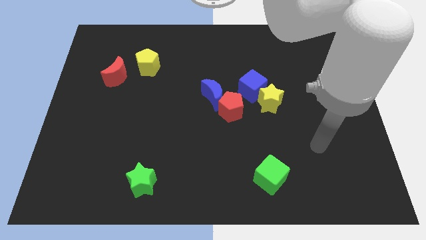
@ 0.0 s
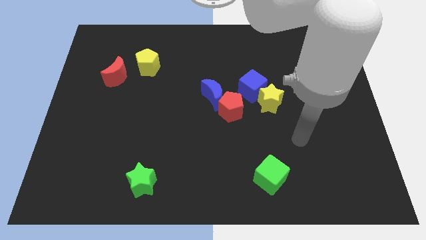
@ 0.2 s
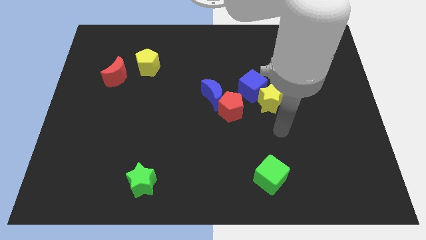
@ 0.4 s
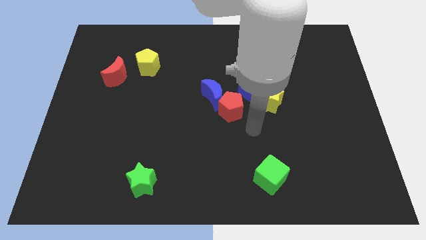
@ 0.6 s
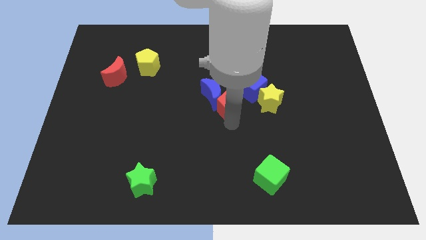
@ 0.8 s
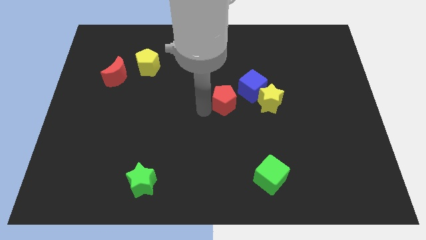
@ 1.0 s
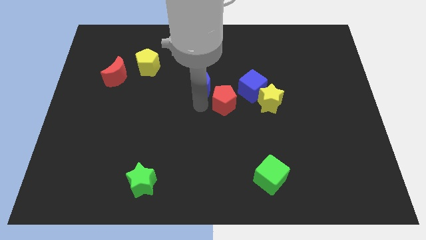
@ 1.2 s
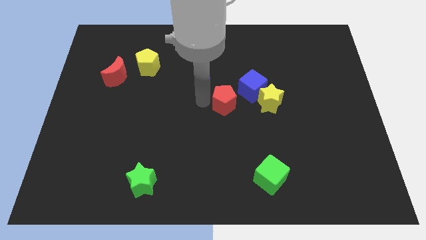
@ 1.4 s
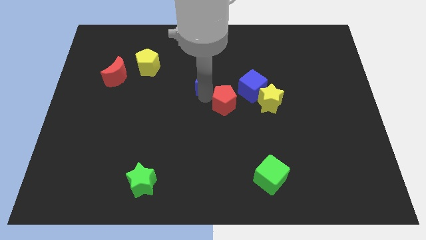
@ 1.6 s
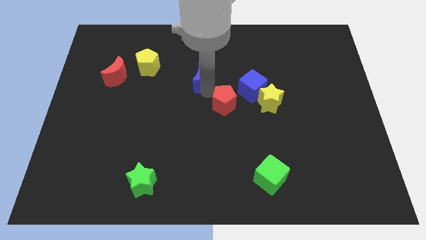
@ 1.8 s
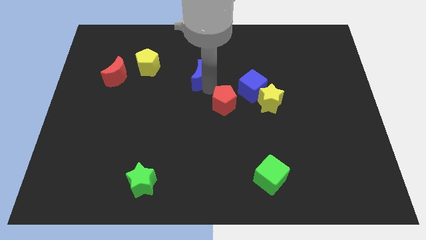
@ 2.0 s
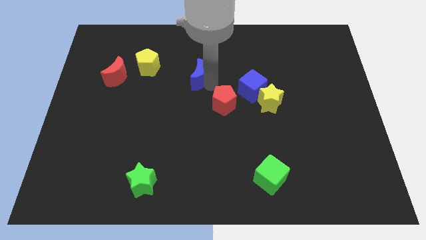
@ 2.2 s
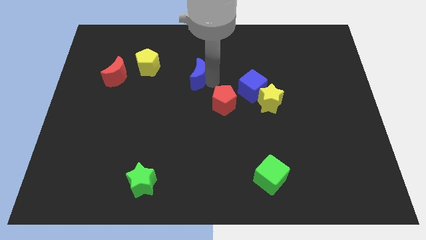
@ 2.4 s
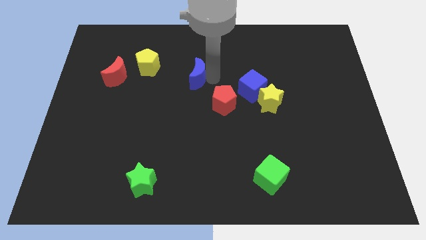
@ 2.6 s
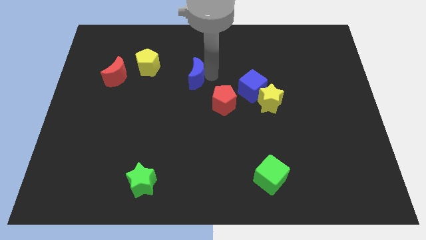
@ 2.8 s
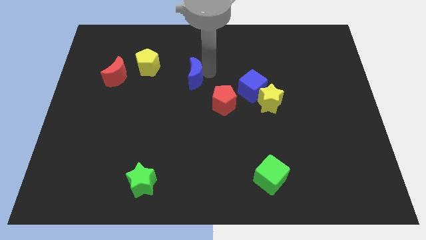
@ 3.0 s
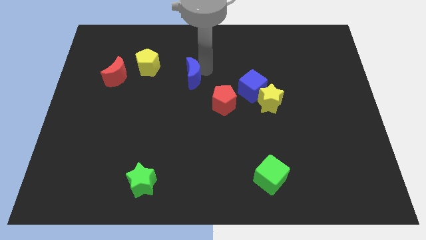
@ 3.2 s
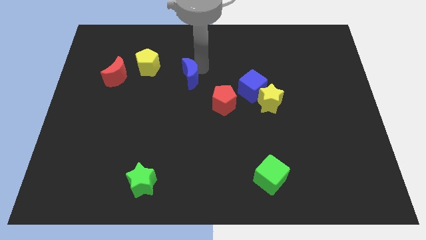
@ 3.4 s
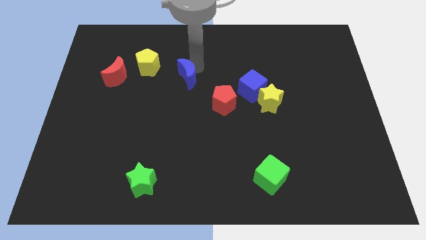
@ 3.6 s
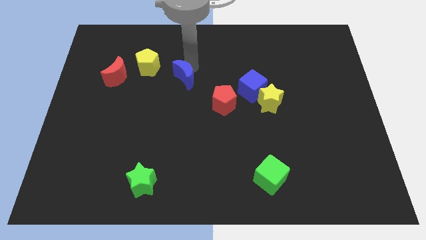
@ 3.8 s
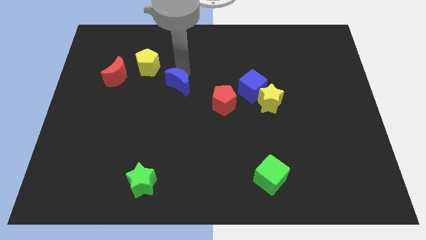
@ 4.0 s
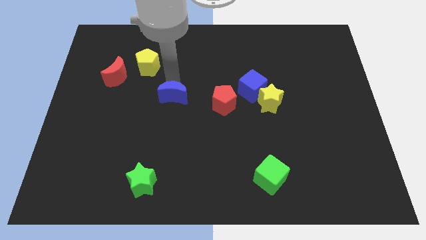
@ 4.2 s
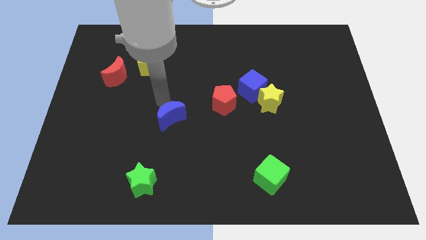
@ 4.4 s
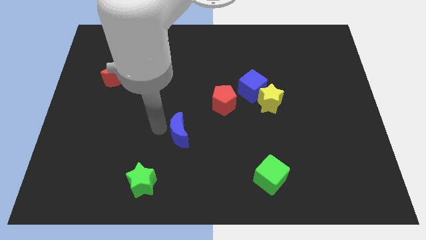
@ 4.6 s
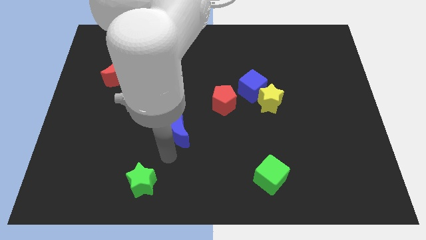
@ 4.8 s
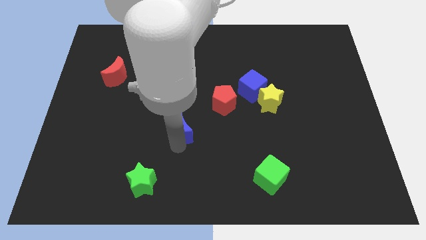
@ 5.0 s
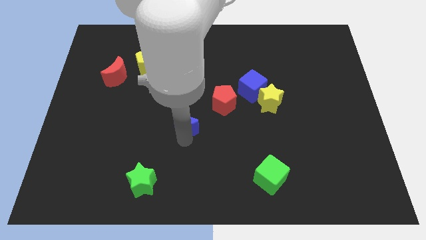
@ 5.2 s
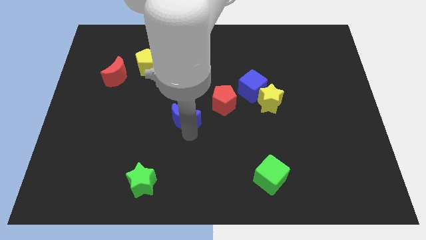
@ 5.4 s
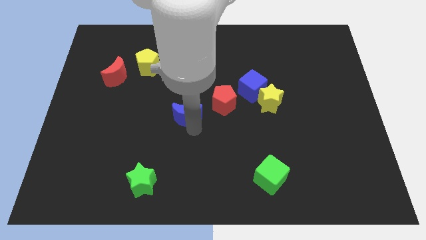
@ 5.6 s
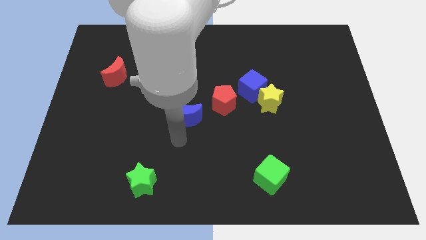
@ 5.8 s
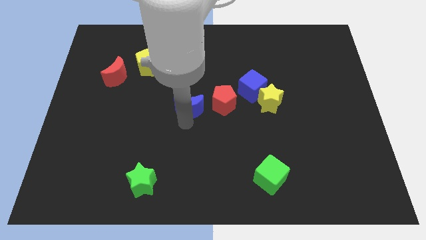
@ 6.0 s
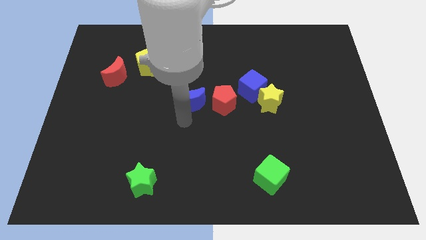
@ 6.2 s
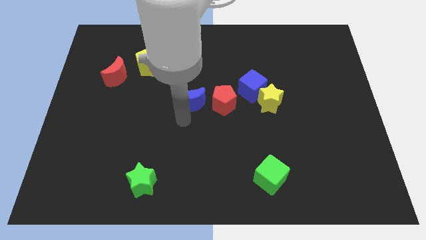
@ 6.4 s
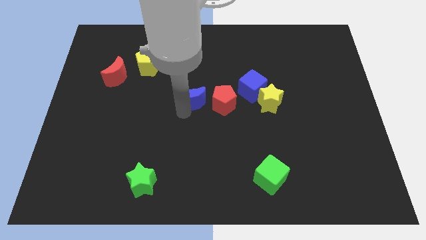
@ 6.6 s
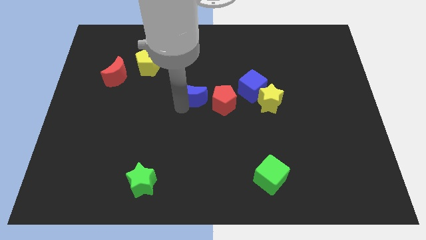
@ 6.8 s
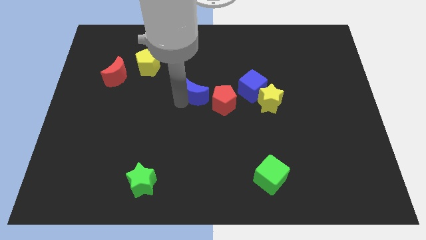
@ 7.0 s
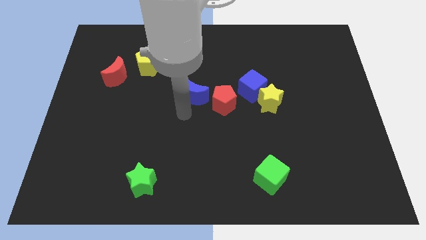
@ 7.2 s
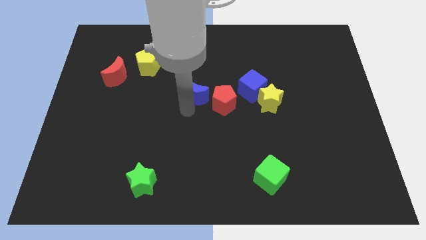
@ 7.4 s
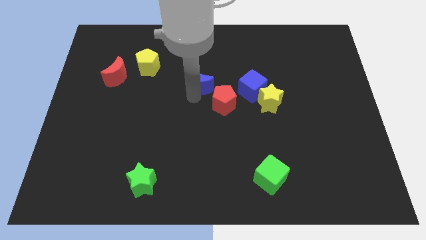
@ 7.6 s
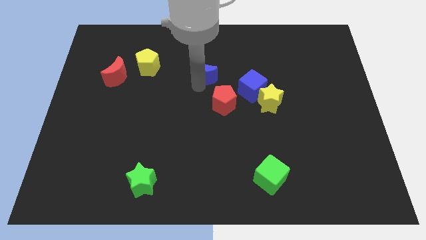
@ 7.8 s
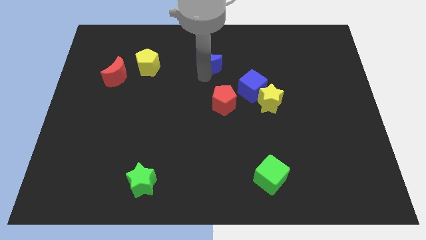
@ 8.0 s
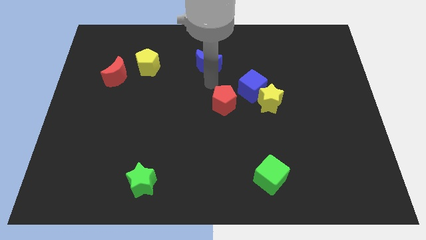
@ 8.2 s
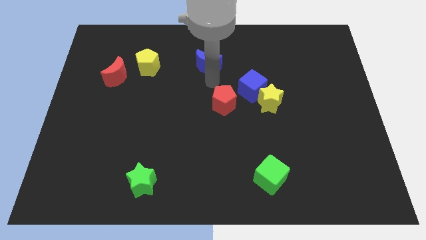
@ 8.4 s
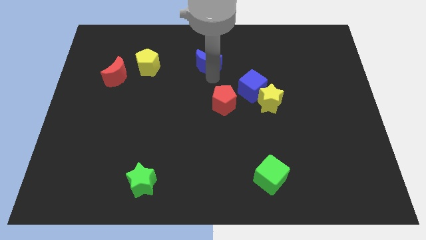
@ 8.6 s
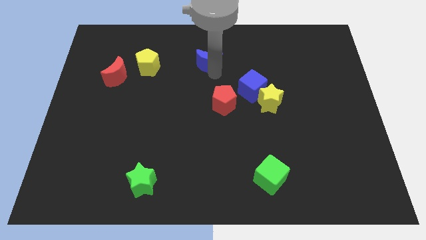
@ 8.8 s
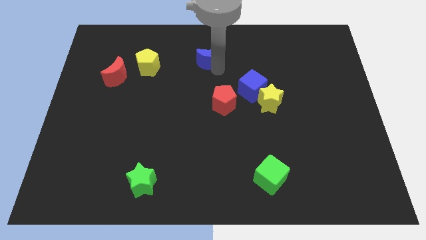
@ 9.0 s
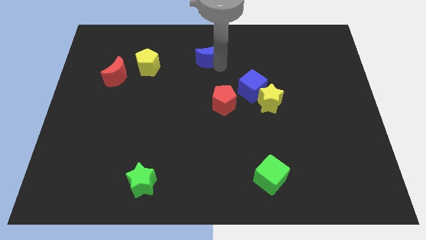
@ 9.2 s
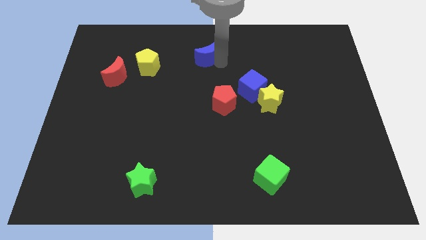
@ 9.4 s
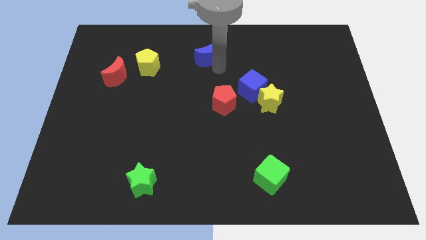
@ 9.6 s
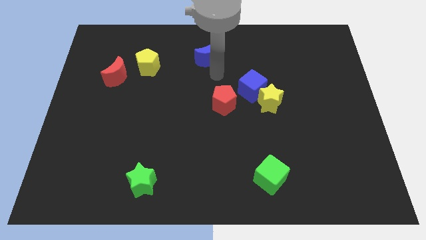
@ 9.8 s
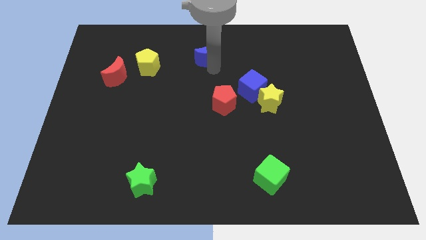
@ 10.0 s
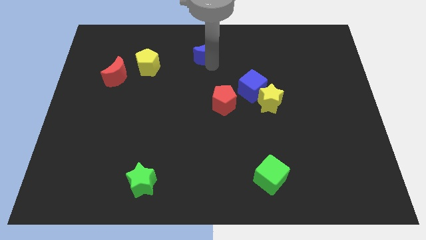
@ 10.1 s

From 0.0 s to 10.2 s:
push the blue moon to the towards your base

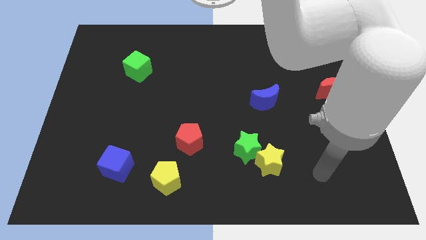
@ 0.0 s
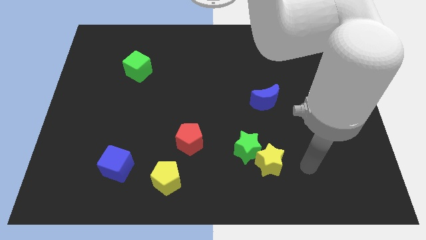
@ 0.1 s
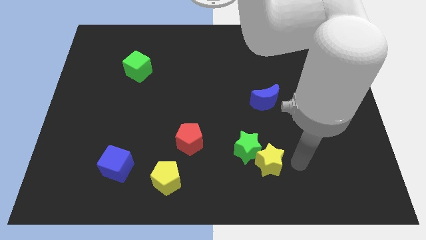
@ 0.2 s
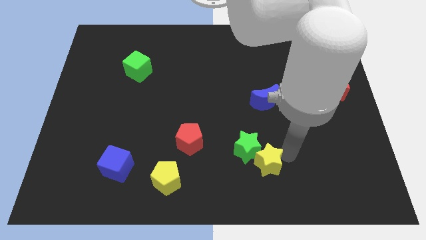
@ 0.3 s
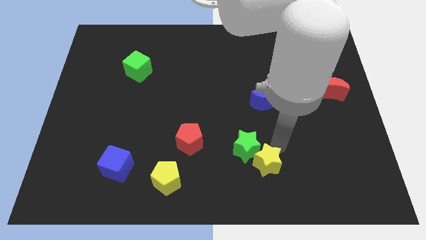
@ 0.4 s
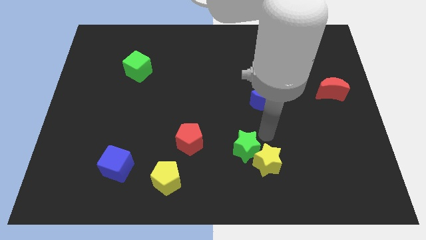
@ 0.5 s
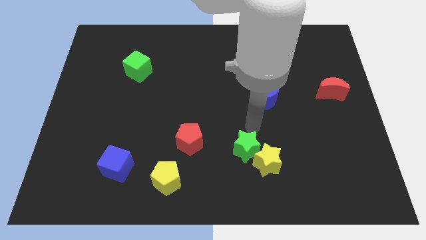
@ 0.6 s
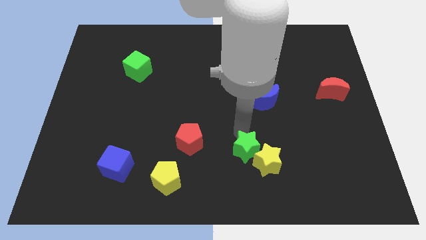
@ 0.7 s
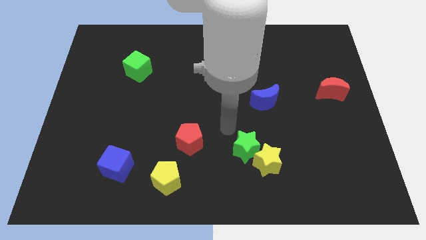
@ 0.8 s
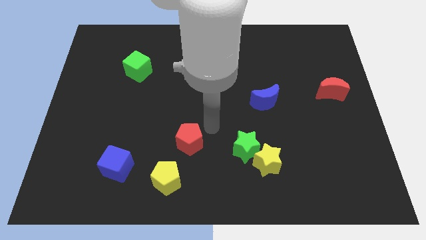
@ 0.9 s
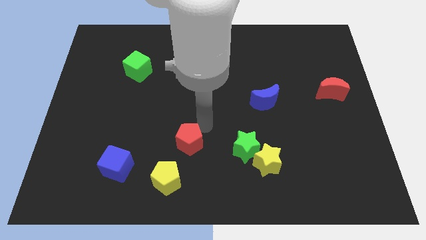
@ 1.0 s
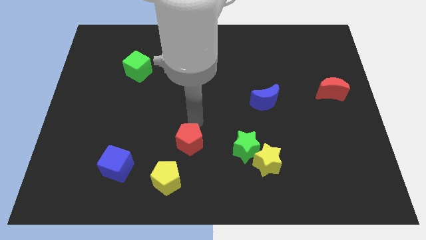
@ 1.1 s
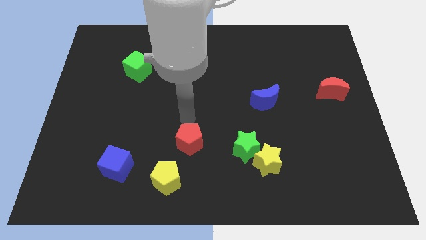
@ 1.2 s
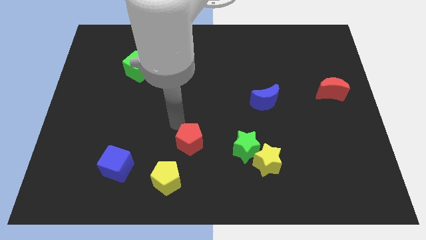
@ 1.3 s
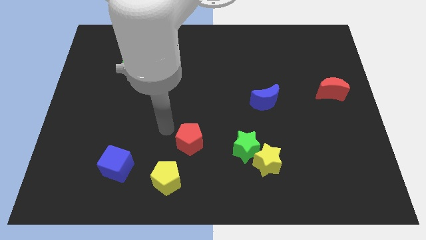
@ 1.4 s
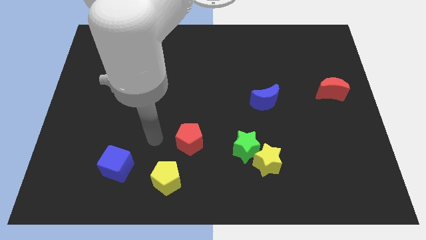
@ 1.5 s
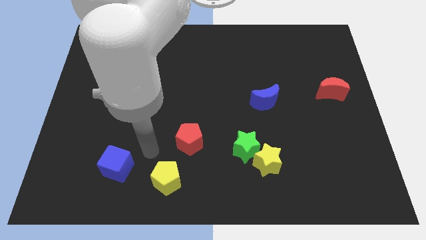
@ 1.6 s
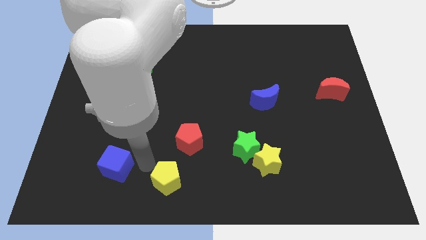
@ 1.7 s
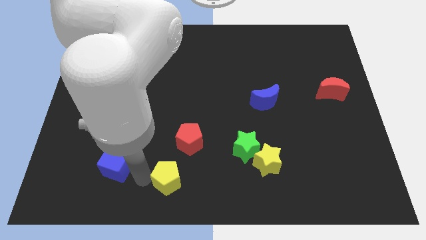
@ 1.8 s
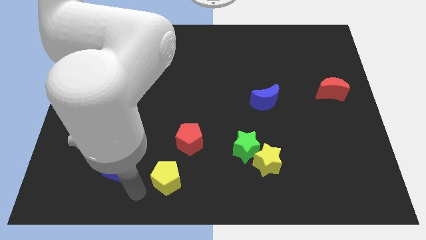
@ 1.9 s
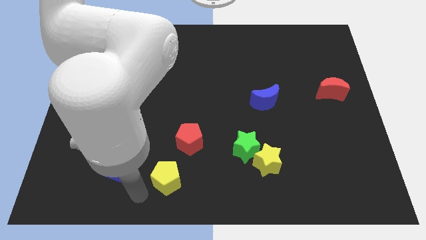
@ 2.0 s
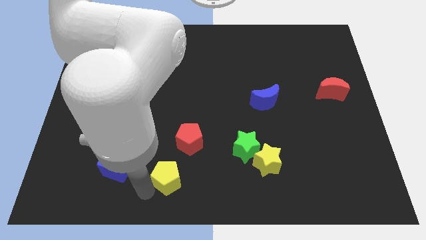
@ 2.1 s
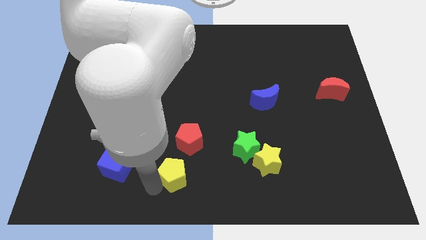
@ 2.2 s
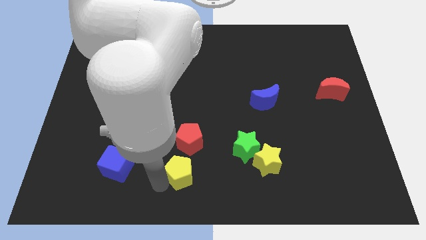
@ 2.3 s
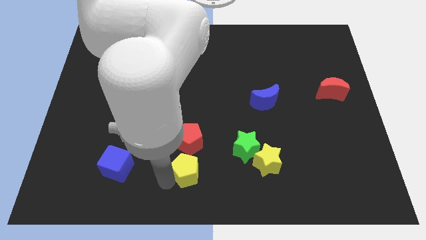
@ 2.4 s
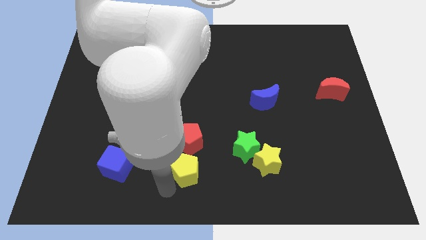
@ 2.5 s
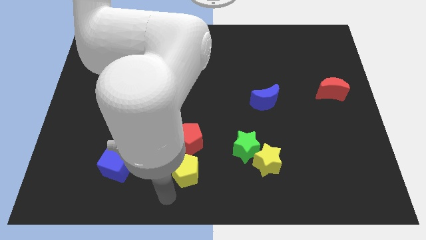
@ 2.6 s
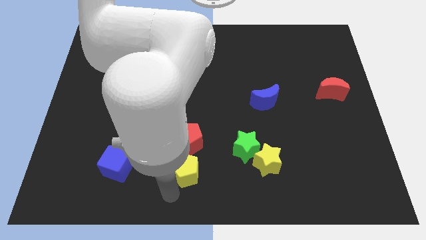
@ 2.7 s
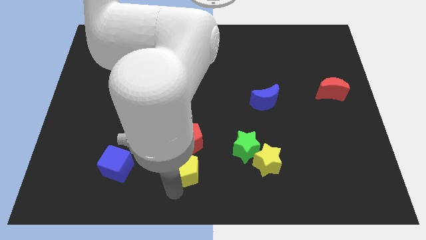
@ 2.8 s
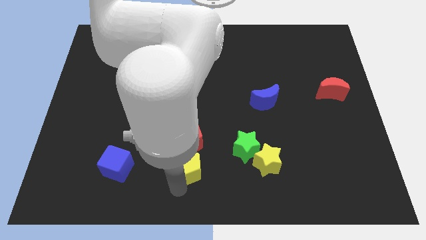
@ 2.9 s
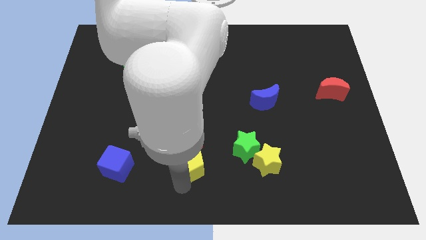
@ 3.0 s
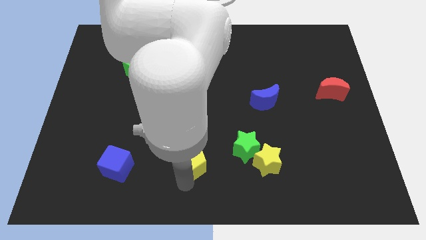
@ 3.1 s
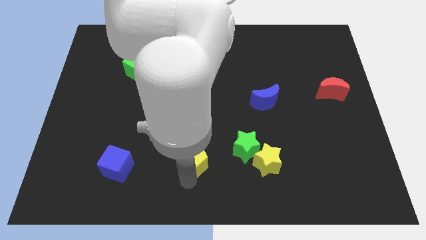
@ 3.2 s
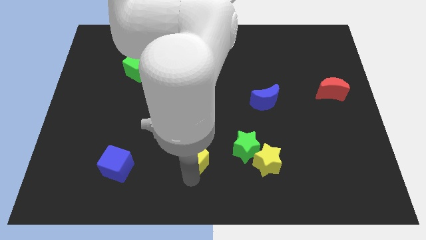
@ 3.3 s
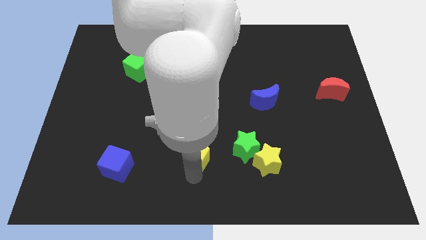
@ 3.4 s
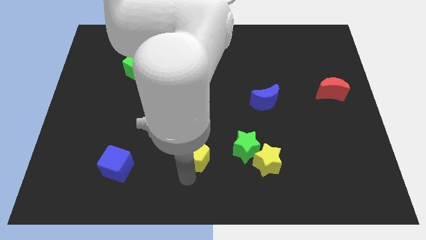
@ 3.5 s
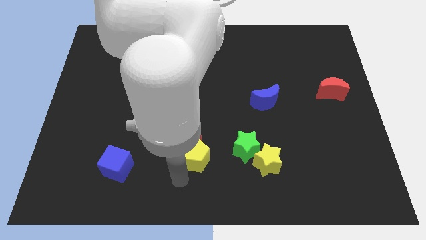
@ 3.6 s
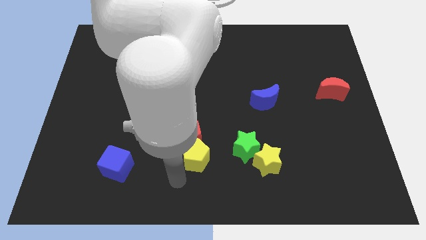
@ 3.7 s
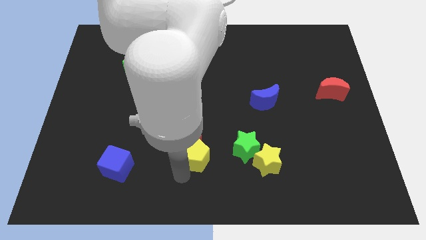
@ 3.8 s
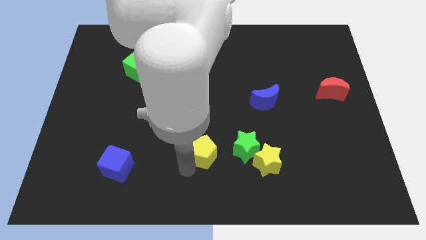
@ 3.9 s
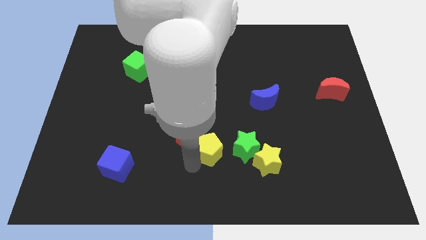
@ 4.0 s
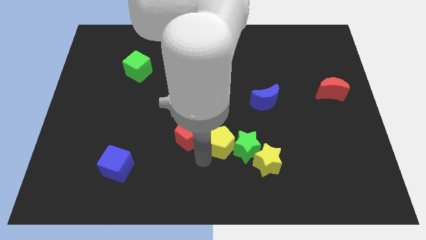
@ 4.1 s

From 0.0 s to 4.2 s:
move the yellow pentagon to the middle of the board
